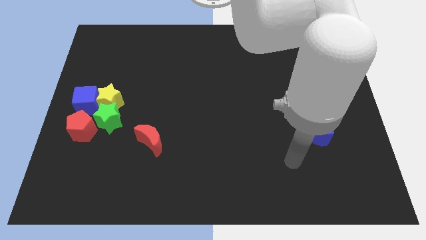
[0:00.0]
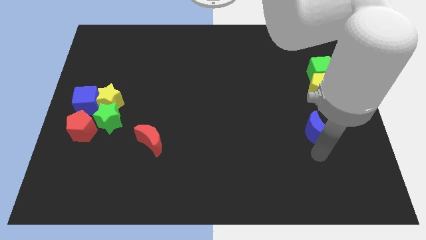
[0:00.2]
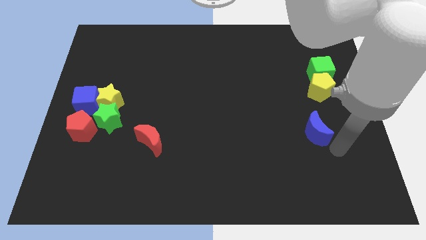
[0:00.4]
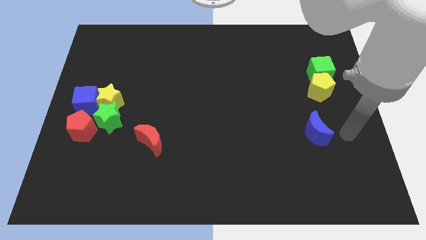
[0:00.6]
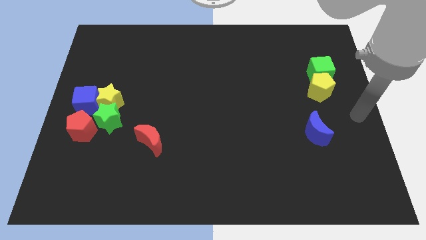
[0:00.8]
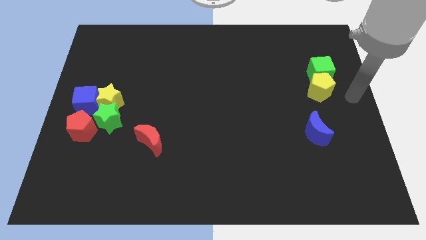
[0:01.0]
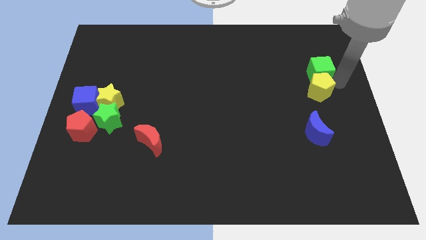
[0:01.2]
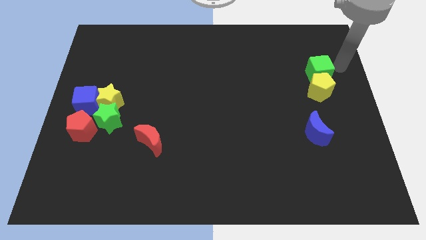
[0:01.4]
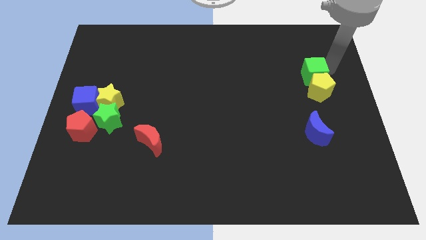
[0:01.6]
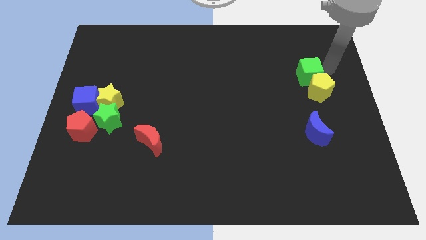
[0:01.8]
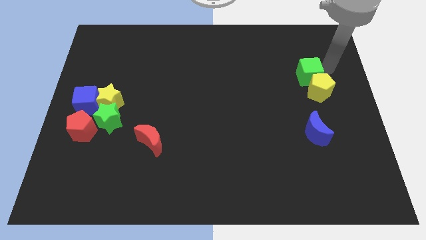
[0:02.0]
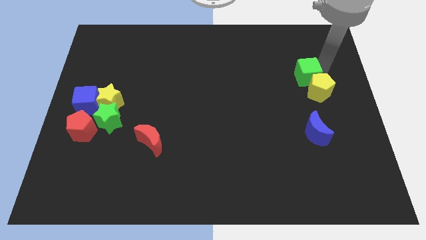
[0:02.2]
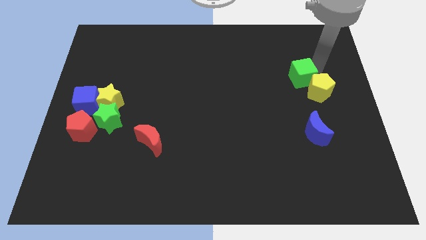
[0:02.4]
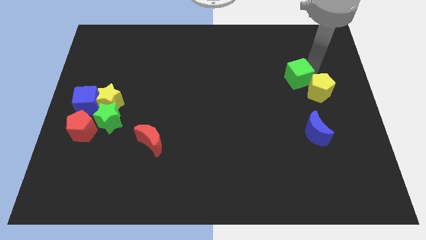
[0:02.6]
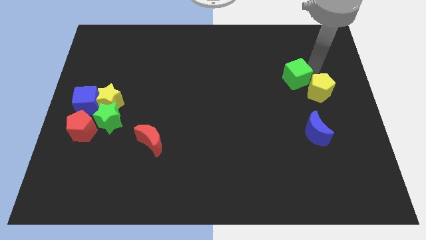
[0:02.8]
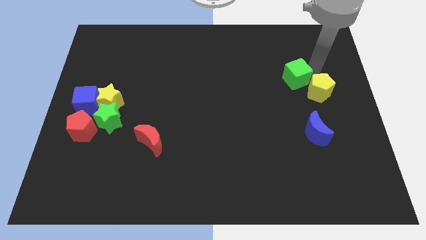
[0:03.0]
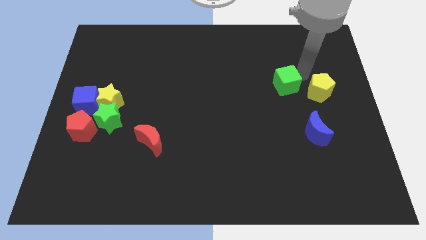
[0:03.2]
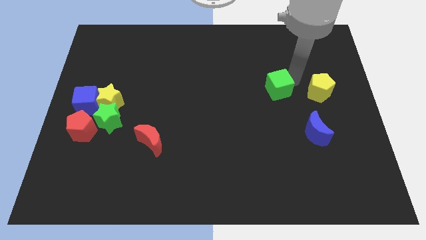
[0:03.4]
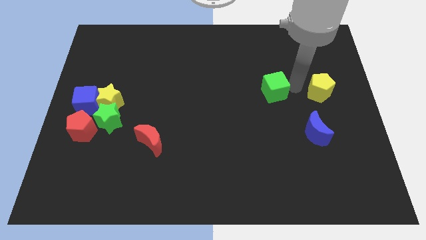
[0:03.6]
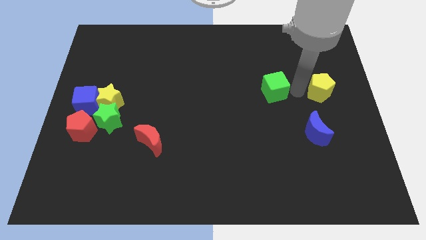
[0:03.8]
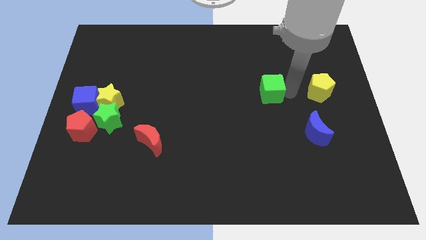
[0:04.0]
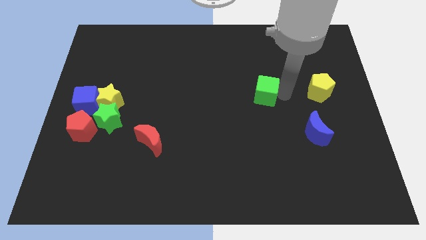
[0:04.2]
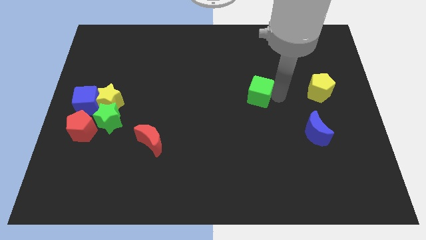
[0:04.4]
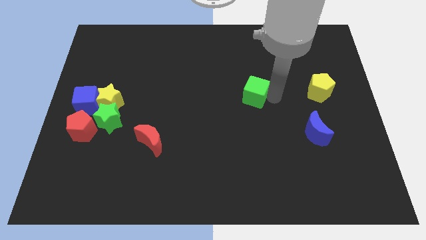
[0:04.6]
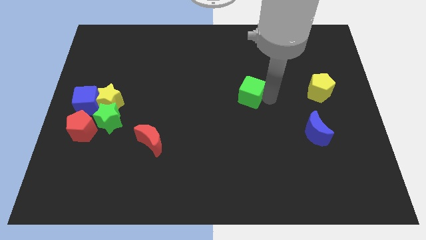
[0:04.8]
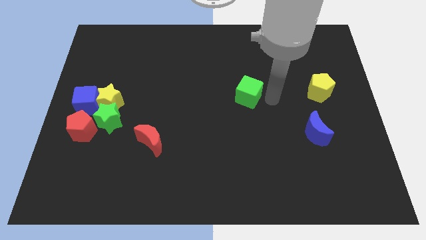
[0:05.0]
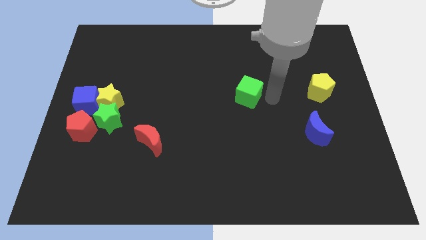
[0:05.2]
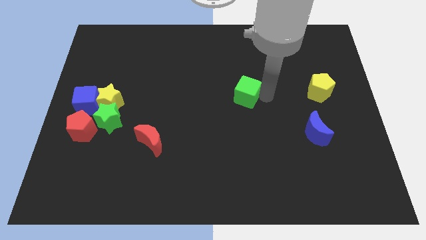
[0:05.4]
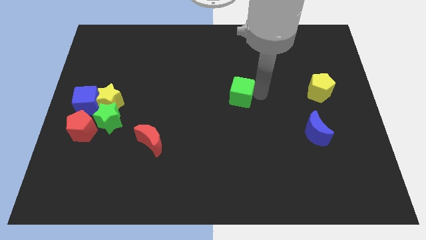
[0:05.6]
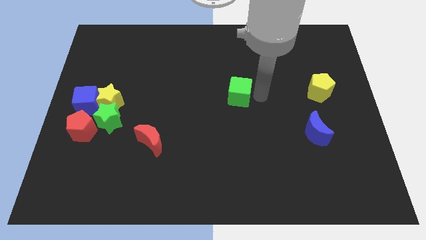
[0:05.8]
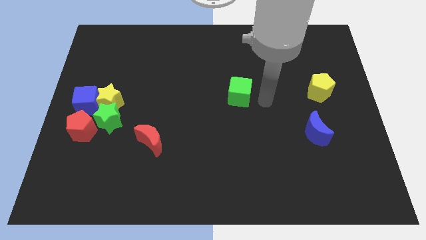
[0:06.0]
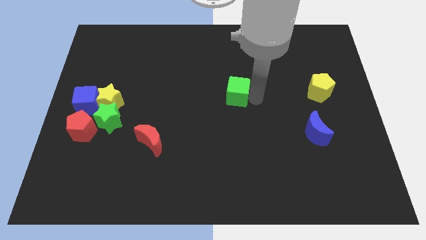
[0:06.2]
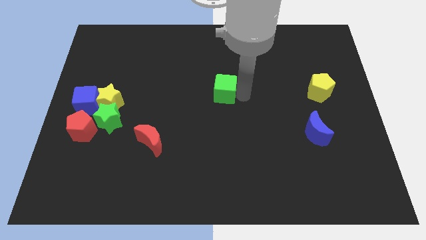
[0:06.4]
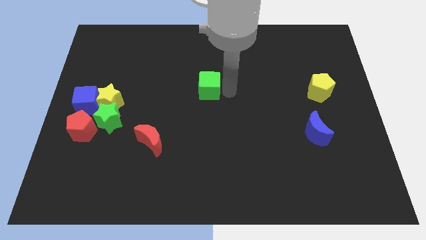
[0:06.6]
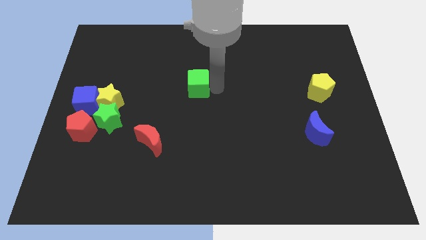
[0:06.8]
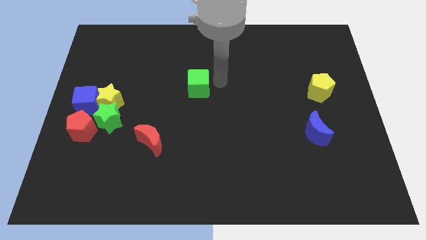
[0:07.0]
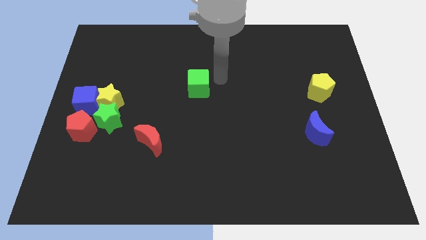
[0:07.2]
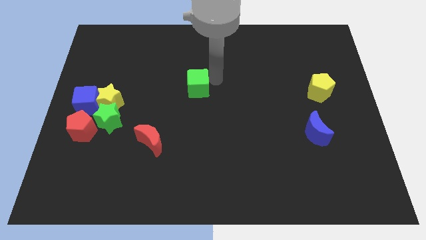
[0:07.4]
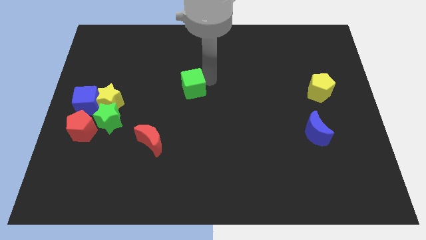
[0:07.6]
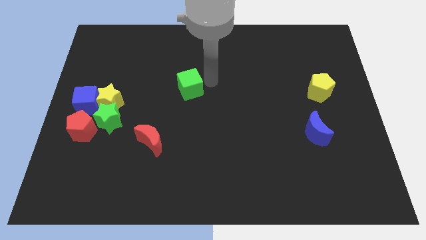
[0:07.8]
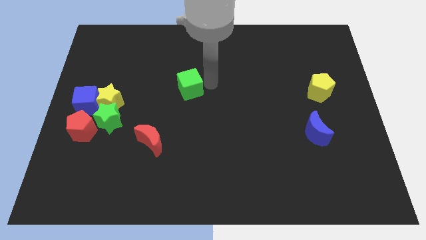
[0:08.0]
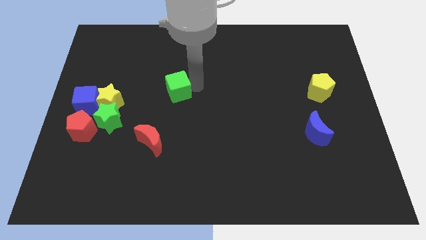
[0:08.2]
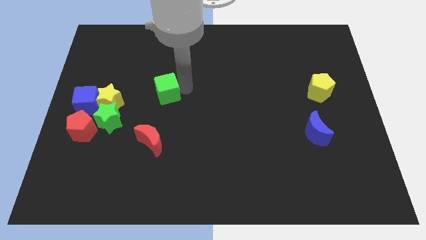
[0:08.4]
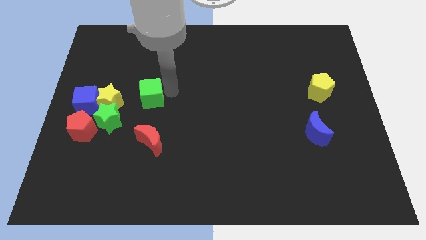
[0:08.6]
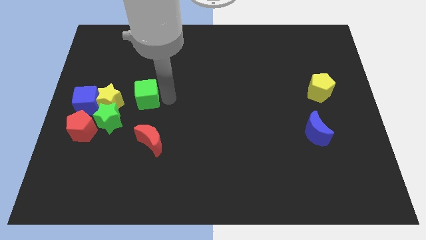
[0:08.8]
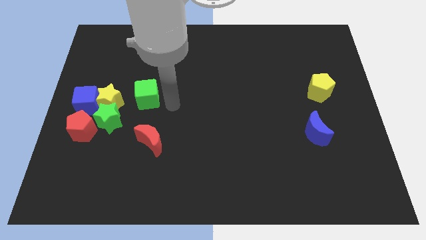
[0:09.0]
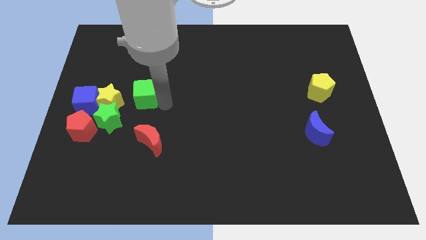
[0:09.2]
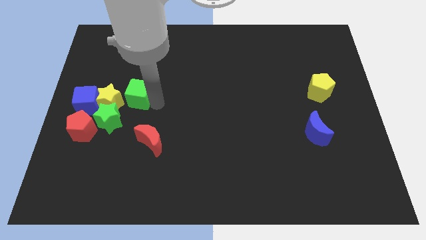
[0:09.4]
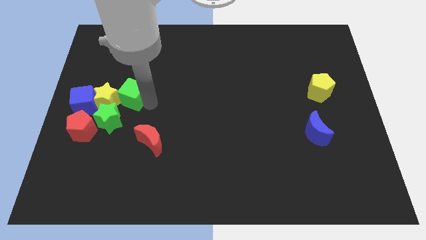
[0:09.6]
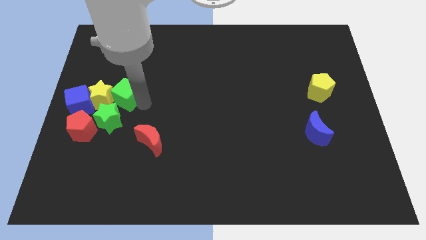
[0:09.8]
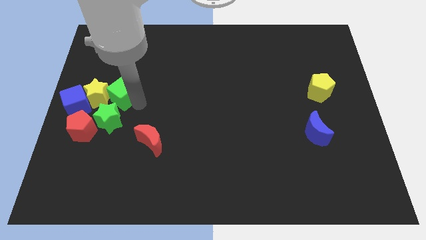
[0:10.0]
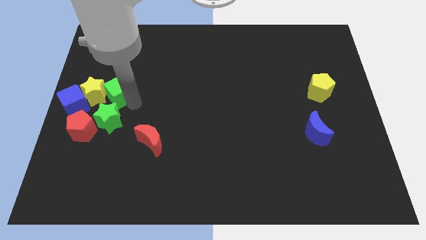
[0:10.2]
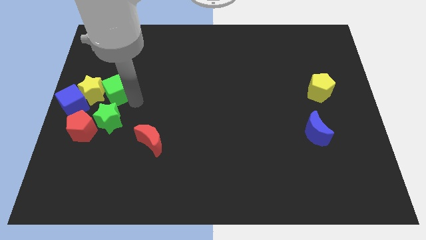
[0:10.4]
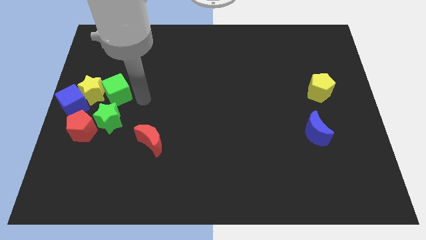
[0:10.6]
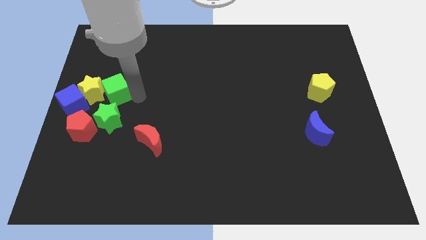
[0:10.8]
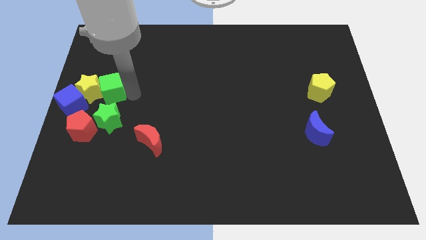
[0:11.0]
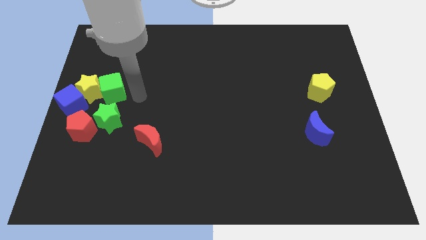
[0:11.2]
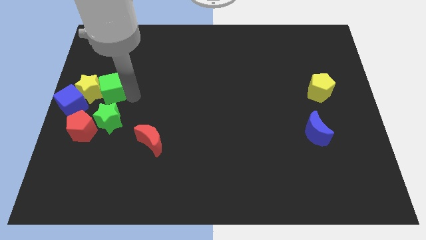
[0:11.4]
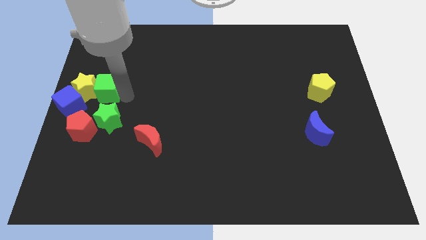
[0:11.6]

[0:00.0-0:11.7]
put the green cube to the center left

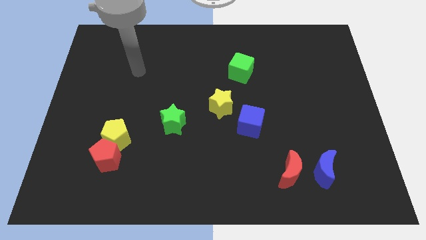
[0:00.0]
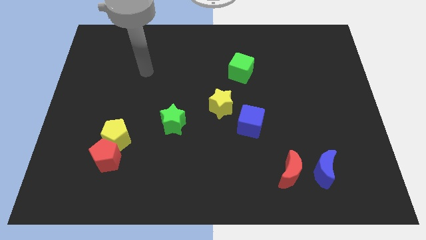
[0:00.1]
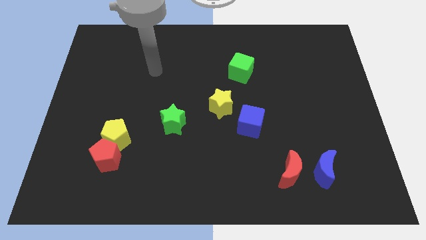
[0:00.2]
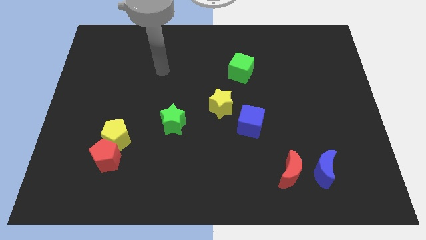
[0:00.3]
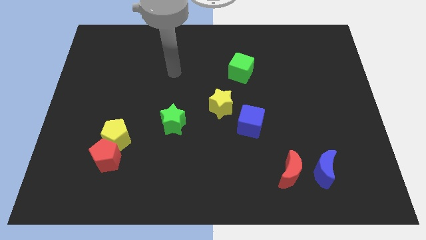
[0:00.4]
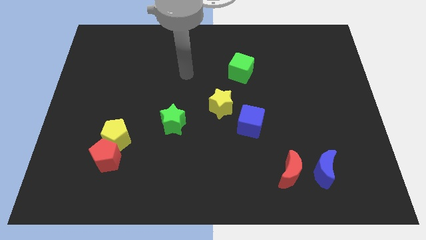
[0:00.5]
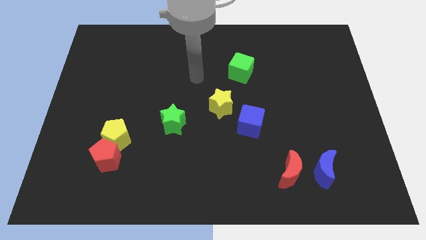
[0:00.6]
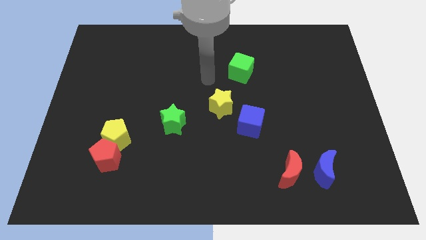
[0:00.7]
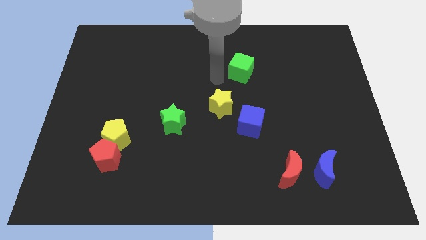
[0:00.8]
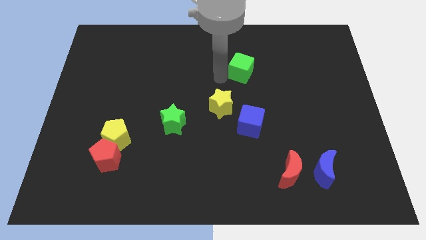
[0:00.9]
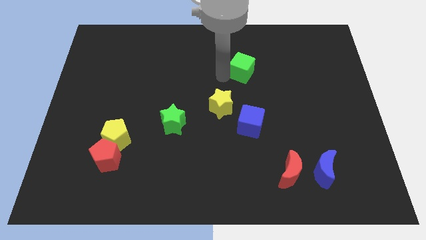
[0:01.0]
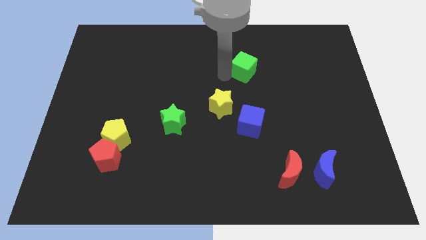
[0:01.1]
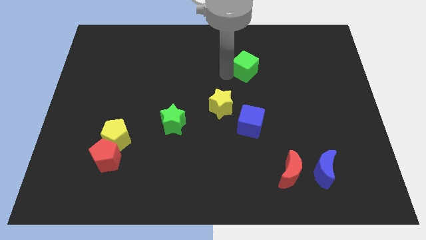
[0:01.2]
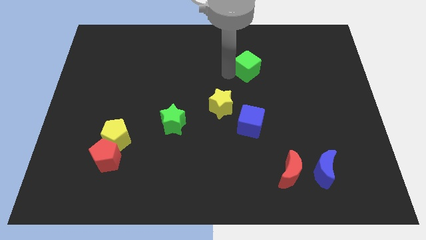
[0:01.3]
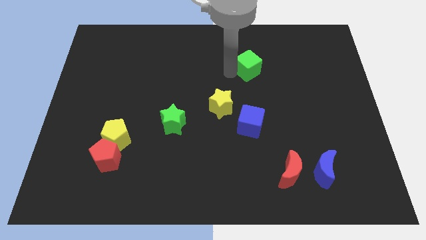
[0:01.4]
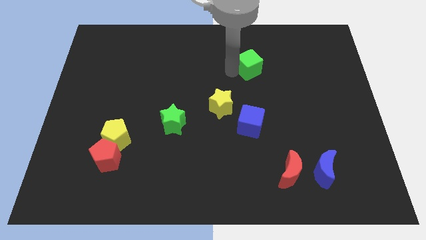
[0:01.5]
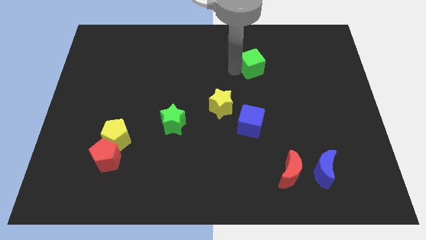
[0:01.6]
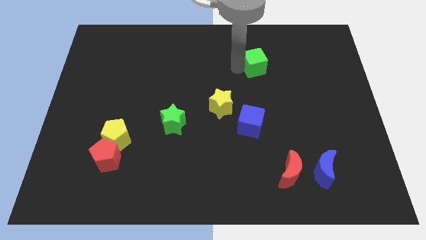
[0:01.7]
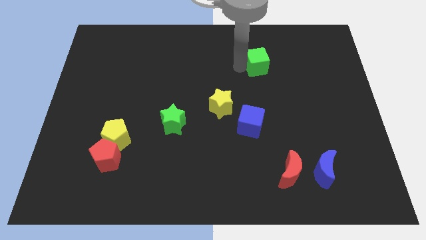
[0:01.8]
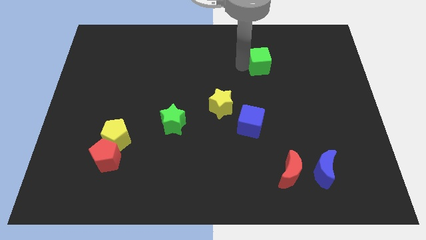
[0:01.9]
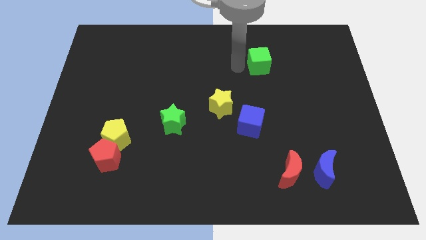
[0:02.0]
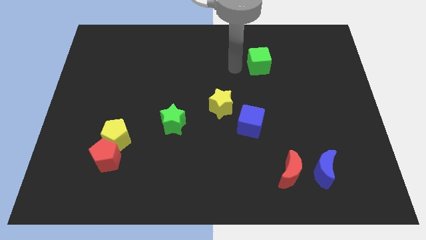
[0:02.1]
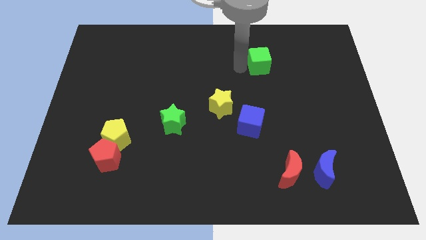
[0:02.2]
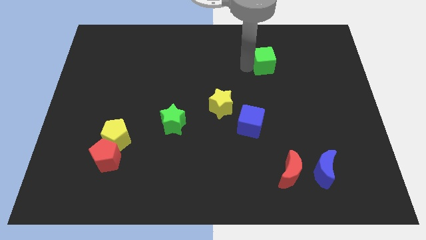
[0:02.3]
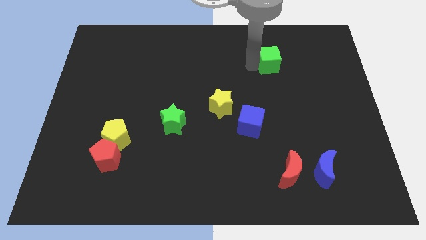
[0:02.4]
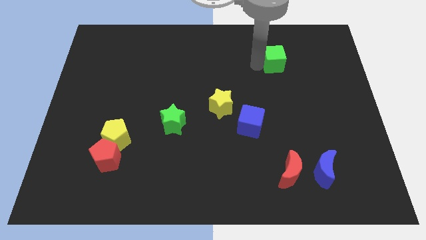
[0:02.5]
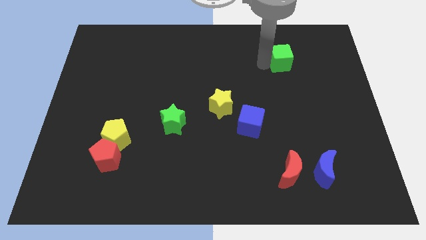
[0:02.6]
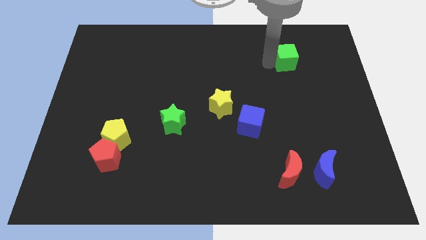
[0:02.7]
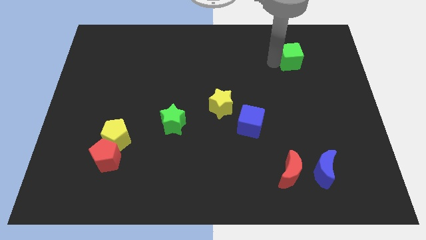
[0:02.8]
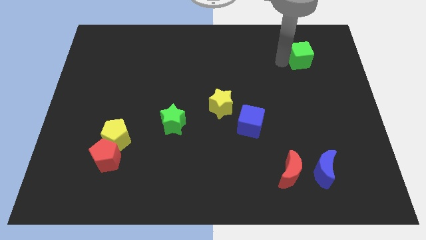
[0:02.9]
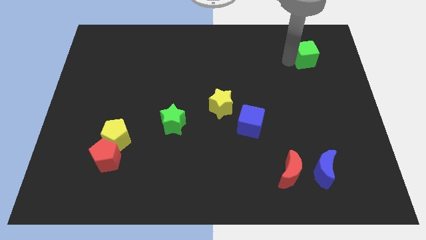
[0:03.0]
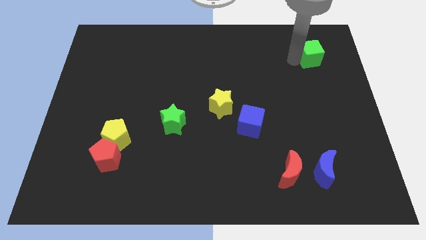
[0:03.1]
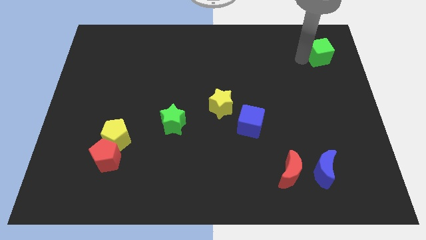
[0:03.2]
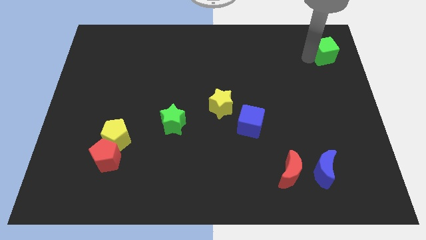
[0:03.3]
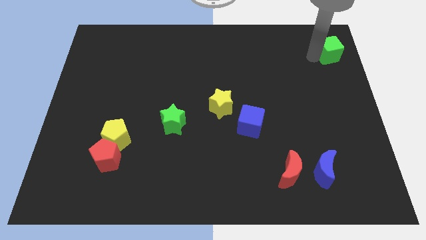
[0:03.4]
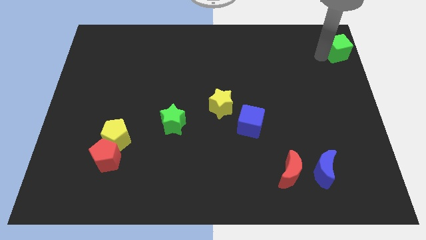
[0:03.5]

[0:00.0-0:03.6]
move the green cube to the top right of the board
